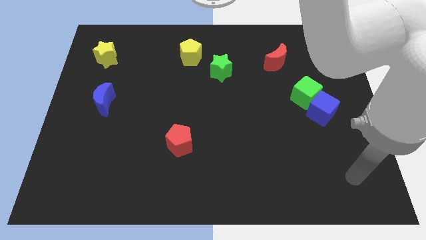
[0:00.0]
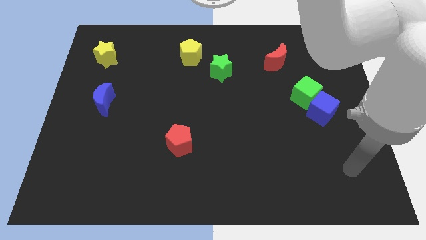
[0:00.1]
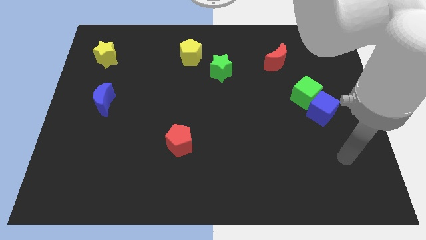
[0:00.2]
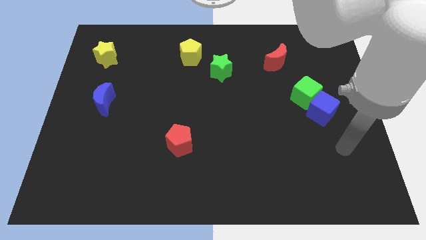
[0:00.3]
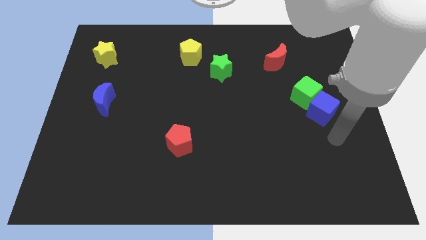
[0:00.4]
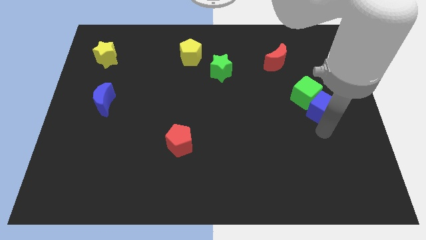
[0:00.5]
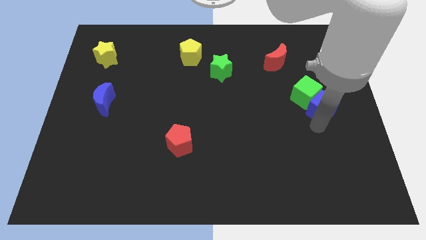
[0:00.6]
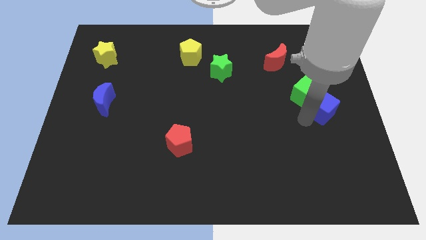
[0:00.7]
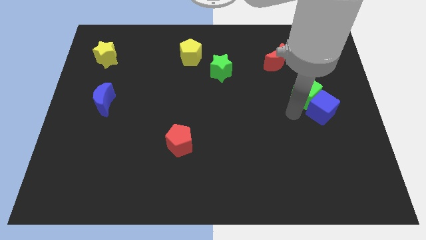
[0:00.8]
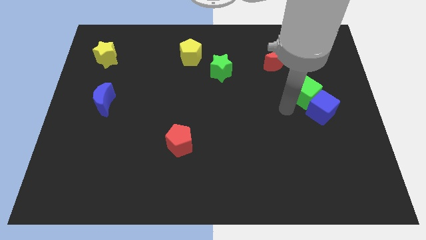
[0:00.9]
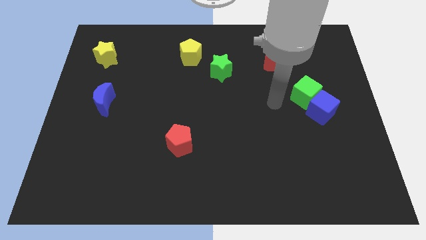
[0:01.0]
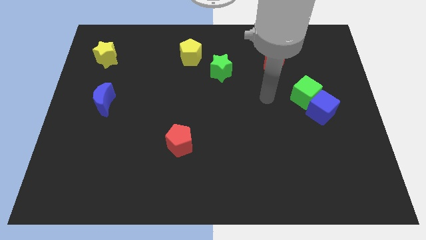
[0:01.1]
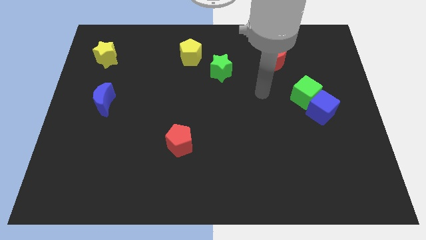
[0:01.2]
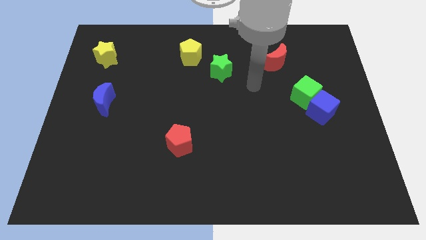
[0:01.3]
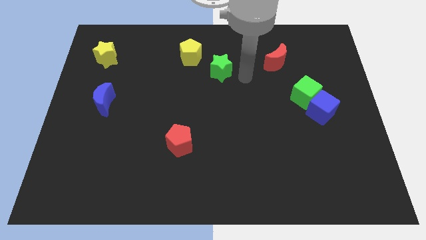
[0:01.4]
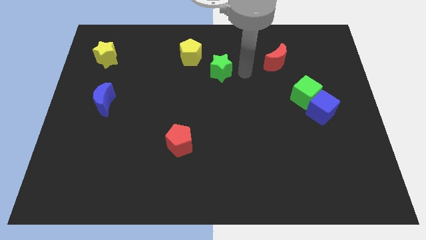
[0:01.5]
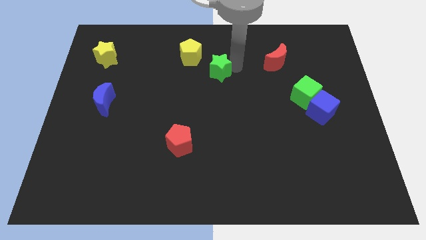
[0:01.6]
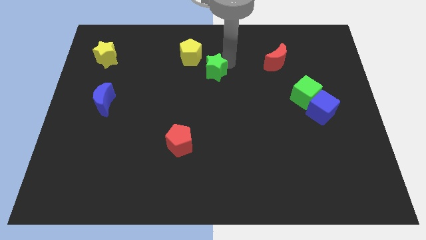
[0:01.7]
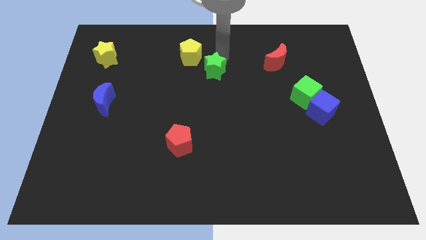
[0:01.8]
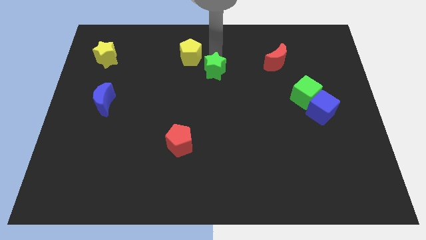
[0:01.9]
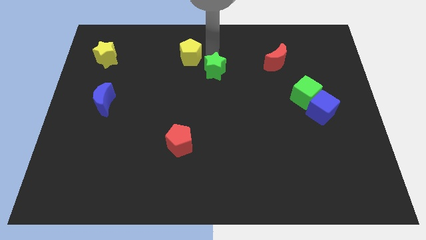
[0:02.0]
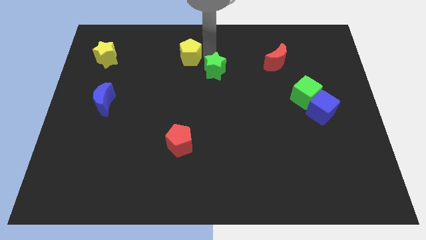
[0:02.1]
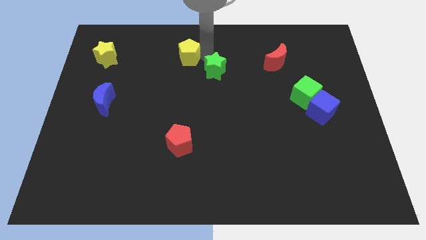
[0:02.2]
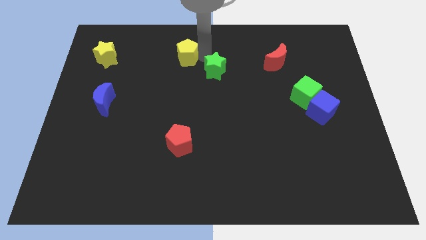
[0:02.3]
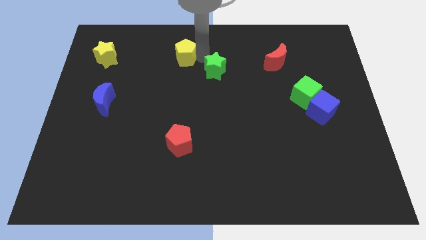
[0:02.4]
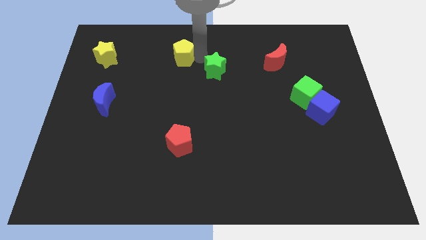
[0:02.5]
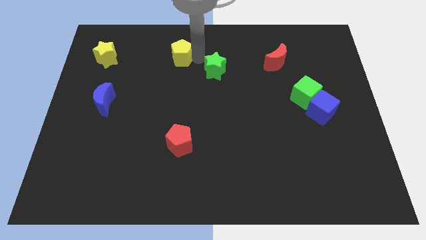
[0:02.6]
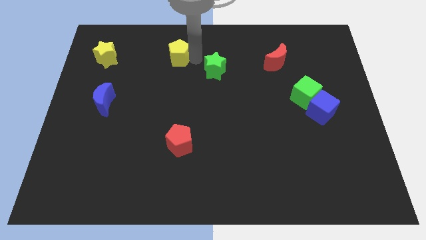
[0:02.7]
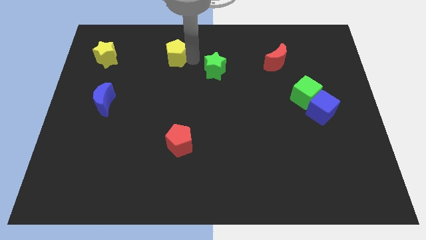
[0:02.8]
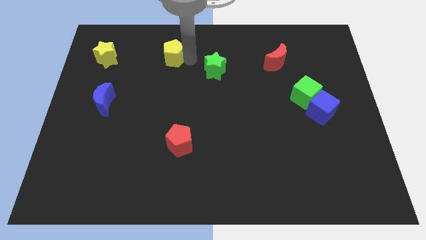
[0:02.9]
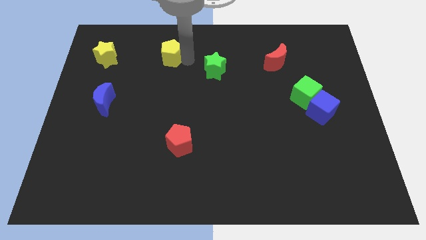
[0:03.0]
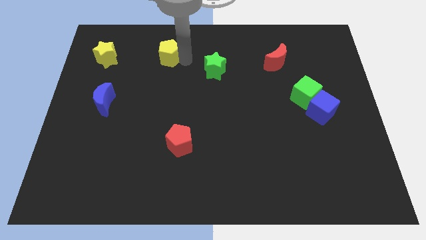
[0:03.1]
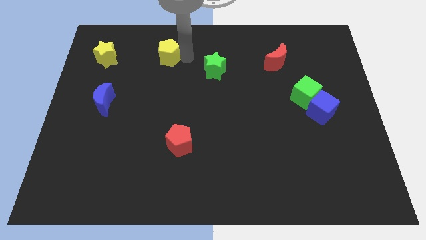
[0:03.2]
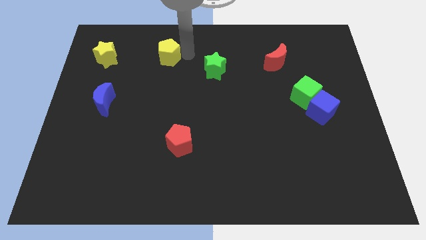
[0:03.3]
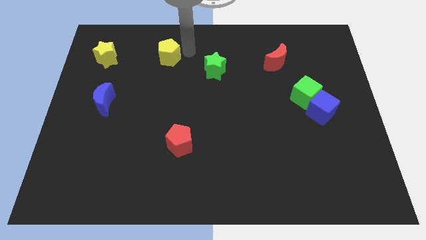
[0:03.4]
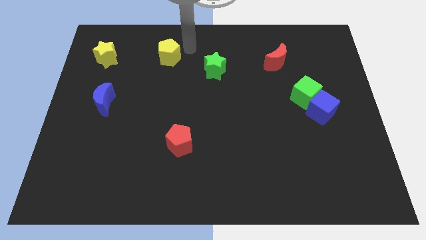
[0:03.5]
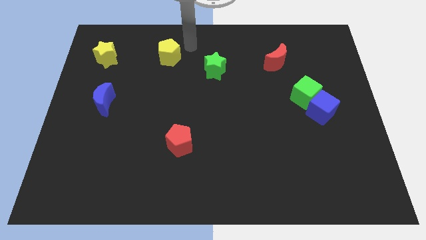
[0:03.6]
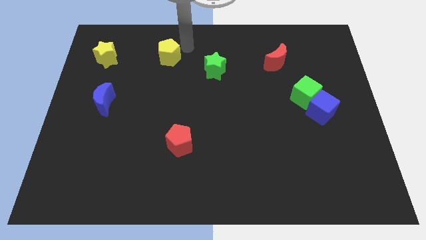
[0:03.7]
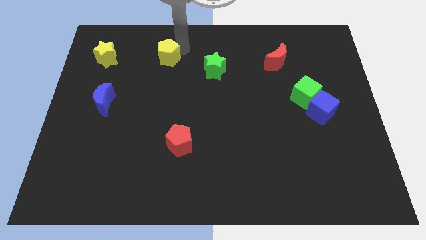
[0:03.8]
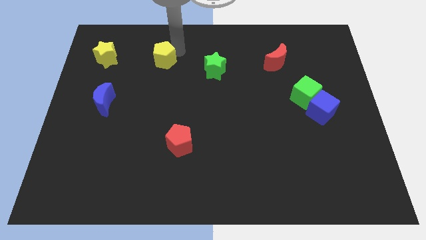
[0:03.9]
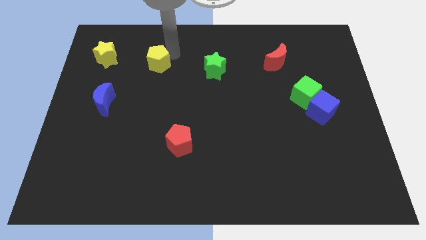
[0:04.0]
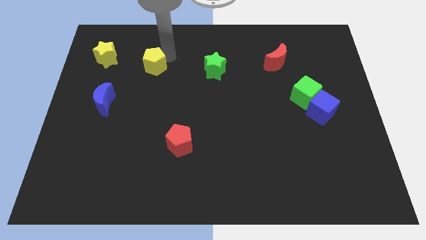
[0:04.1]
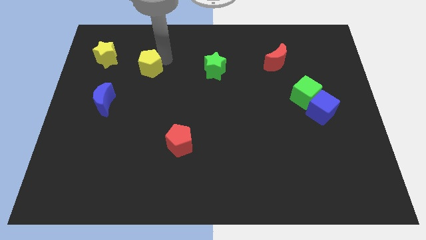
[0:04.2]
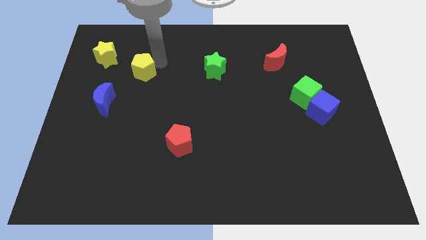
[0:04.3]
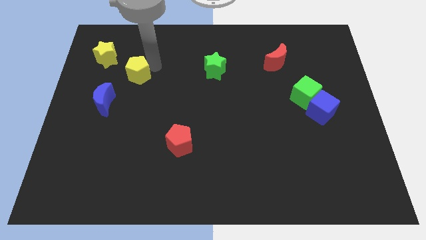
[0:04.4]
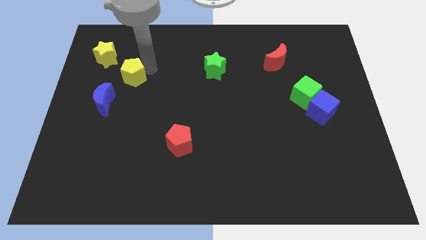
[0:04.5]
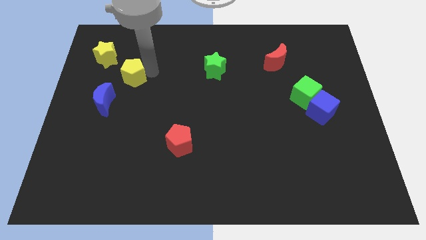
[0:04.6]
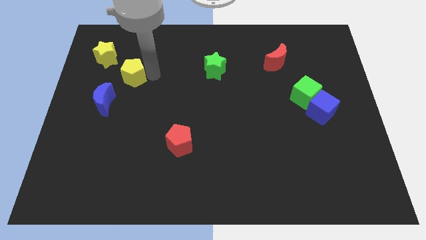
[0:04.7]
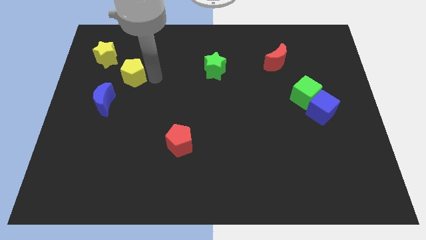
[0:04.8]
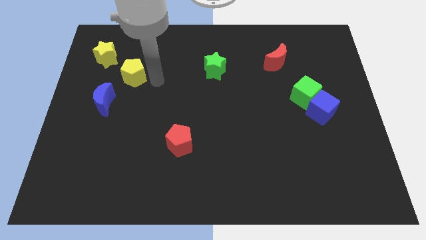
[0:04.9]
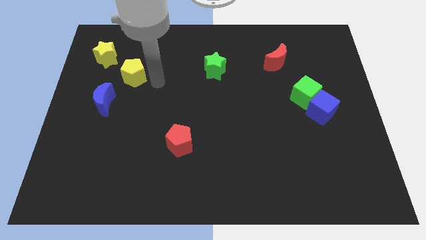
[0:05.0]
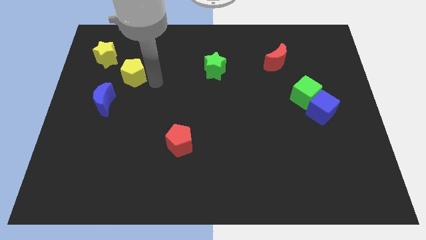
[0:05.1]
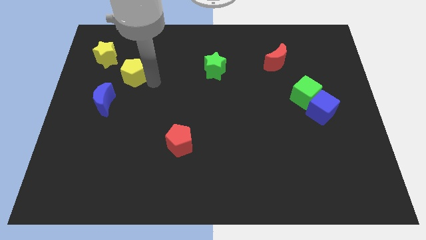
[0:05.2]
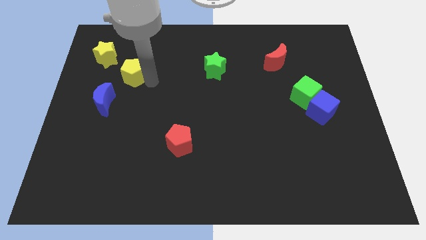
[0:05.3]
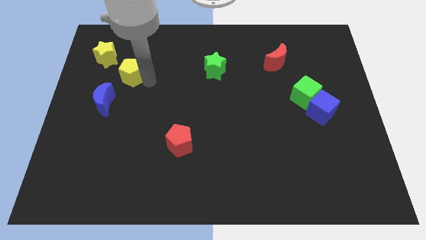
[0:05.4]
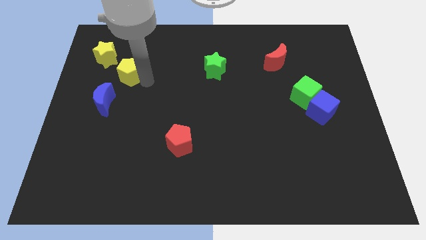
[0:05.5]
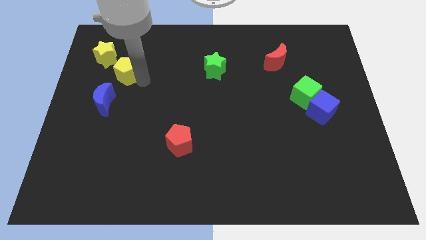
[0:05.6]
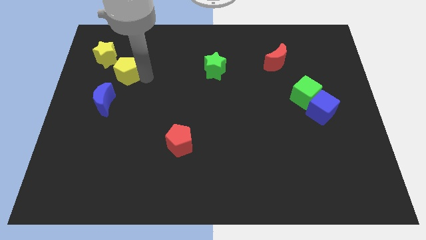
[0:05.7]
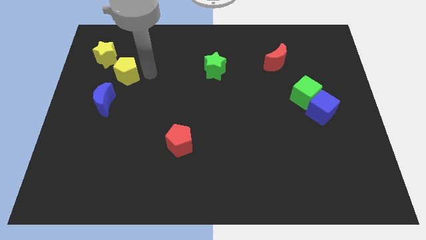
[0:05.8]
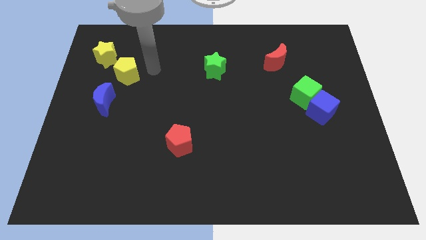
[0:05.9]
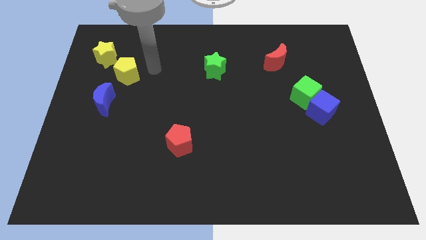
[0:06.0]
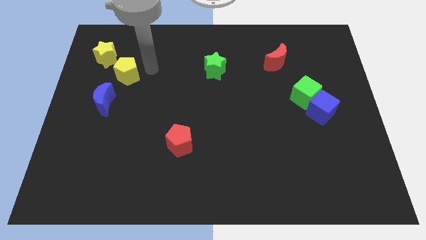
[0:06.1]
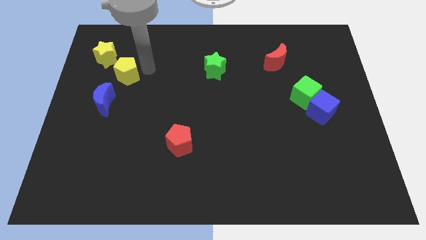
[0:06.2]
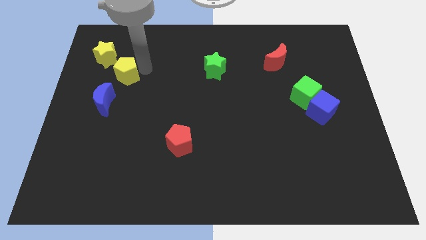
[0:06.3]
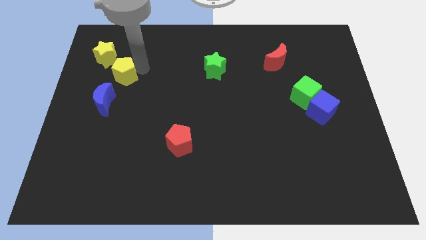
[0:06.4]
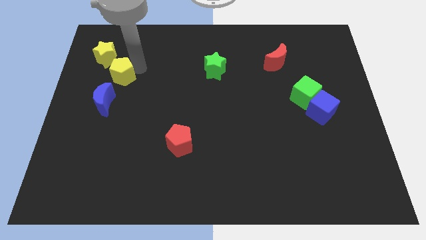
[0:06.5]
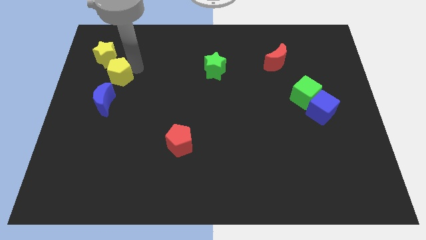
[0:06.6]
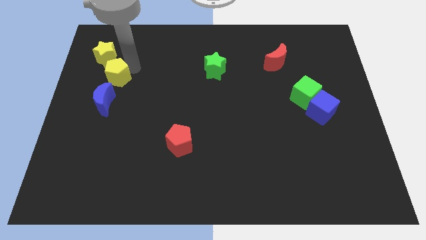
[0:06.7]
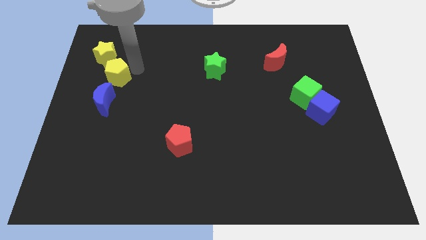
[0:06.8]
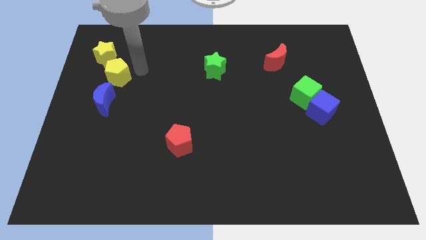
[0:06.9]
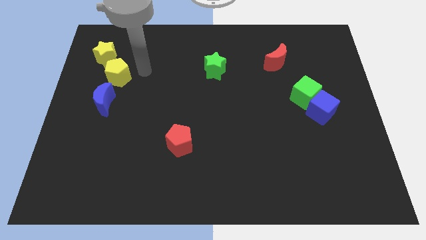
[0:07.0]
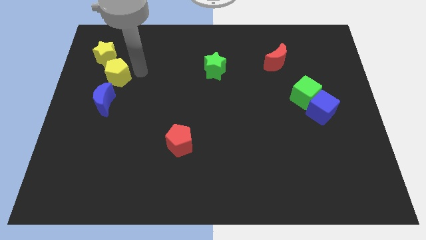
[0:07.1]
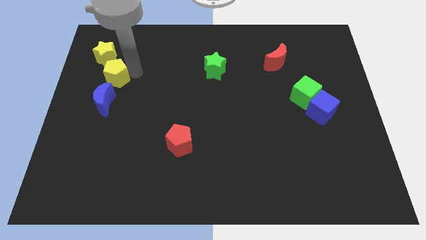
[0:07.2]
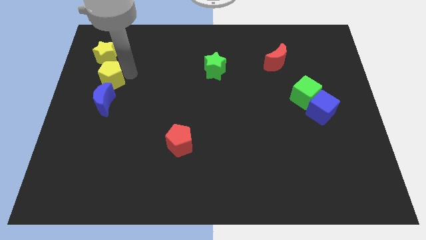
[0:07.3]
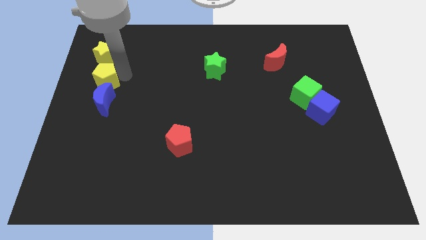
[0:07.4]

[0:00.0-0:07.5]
move the yellow pentagon to the left side
